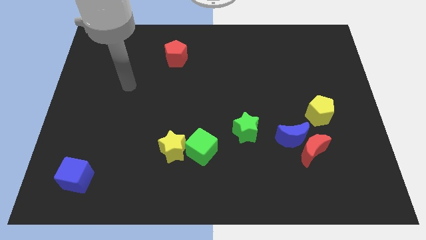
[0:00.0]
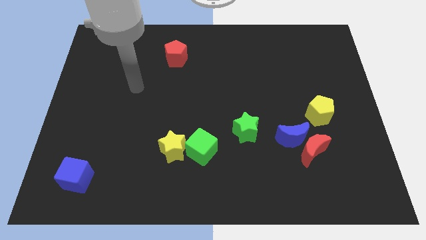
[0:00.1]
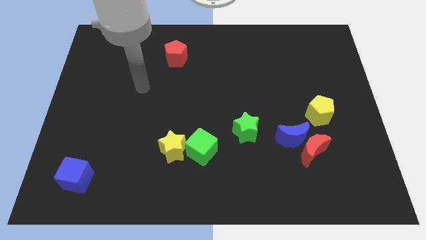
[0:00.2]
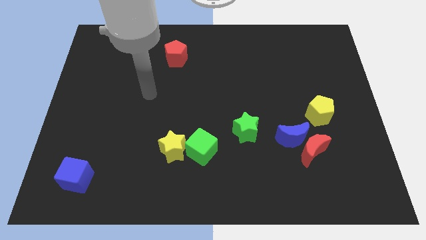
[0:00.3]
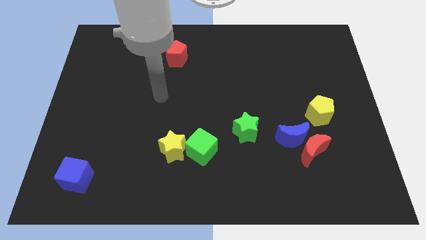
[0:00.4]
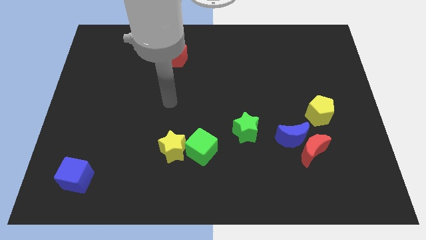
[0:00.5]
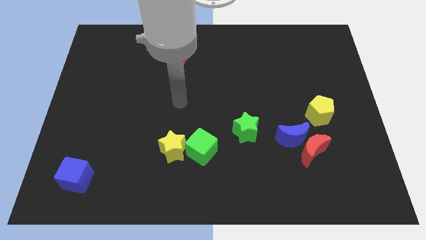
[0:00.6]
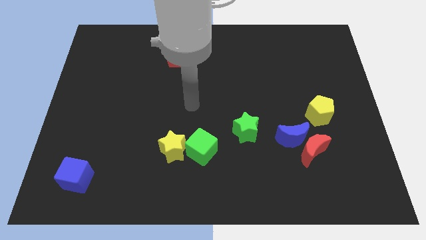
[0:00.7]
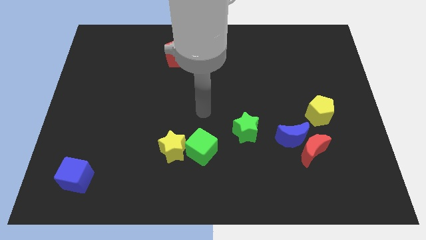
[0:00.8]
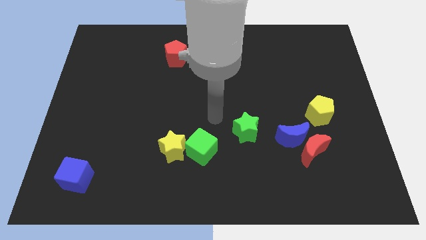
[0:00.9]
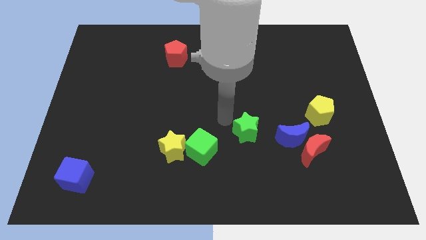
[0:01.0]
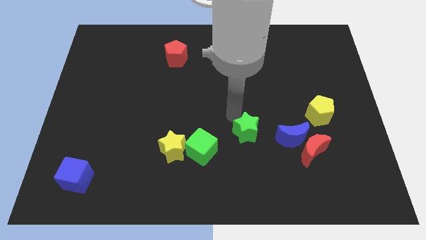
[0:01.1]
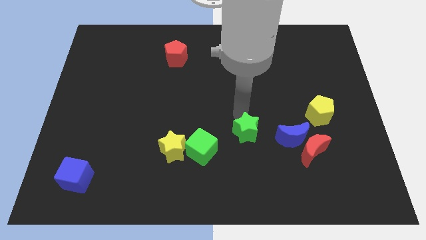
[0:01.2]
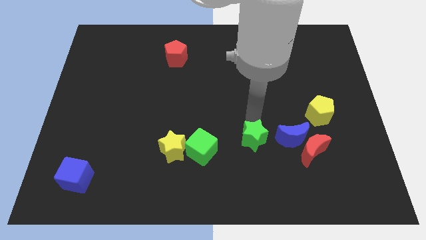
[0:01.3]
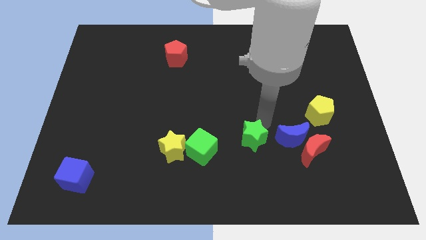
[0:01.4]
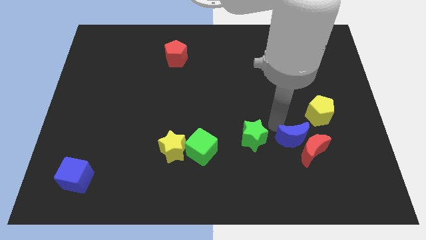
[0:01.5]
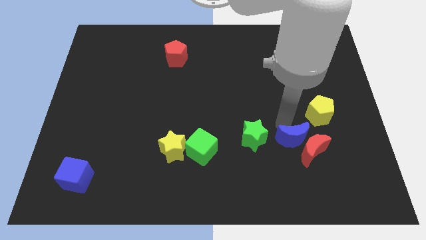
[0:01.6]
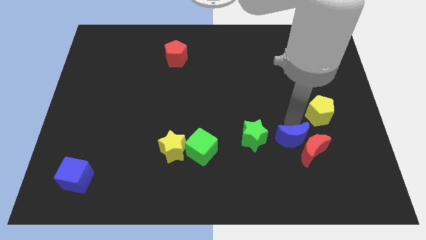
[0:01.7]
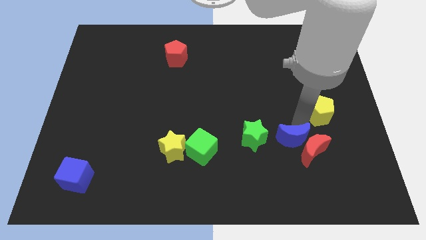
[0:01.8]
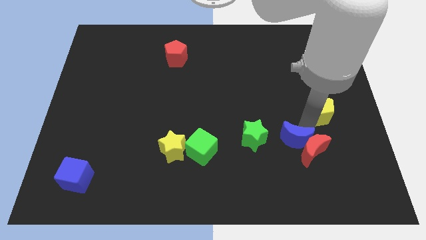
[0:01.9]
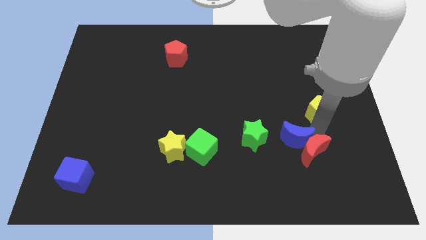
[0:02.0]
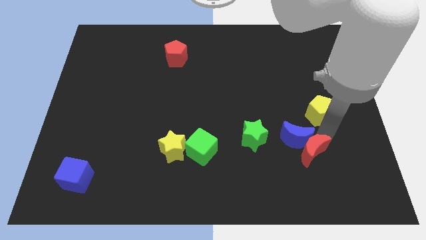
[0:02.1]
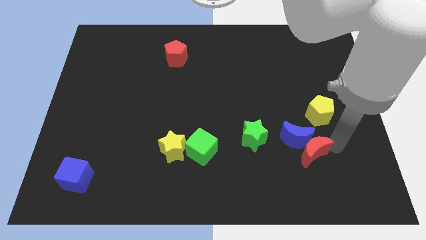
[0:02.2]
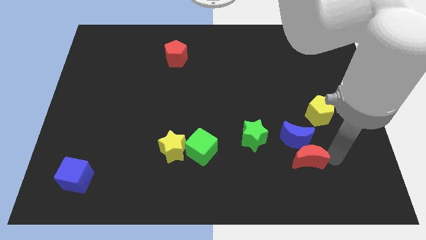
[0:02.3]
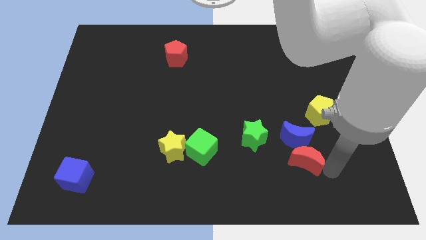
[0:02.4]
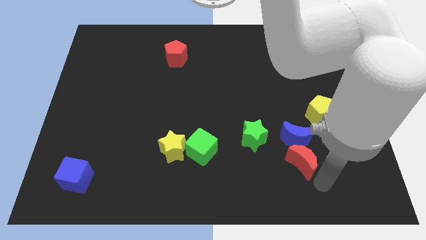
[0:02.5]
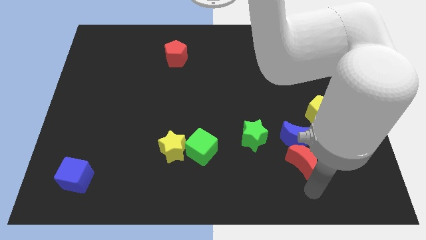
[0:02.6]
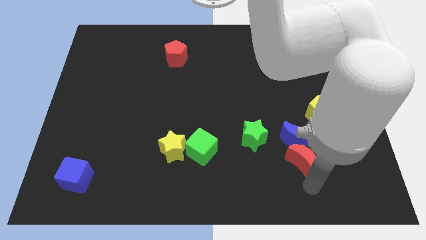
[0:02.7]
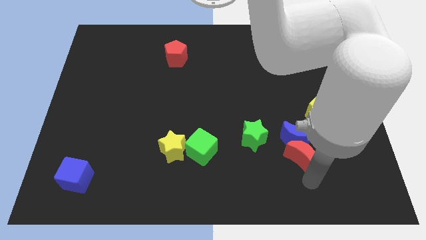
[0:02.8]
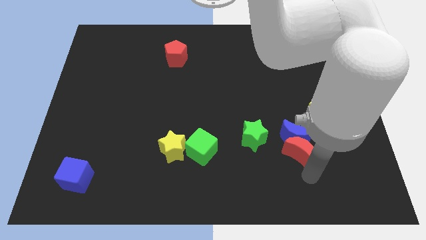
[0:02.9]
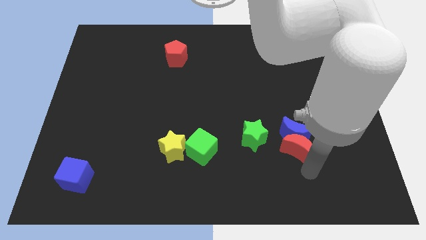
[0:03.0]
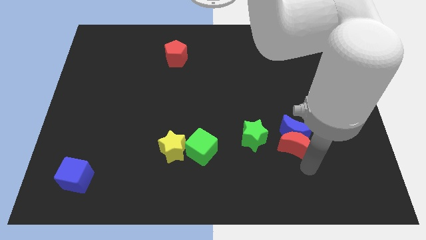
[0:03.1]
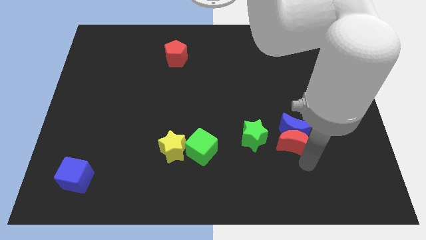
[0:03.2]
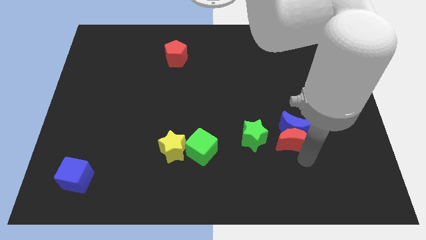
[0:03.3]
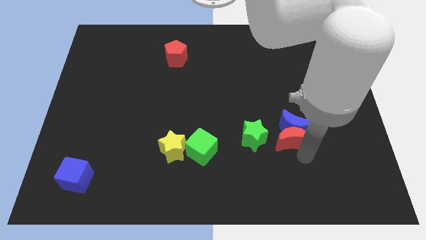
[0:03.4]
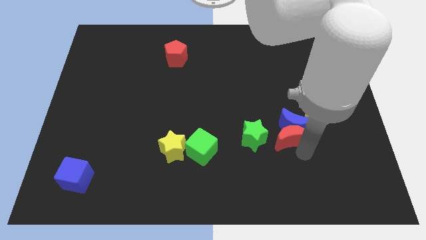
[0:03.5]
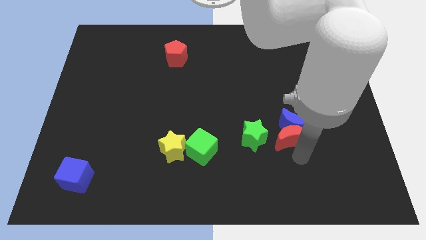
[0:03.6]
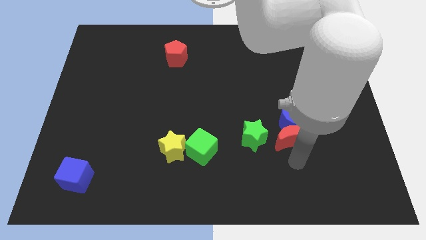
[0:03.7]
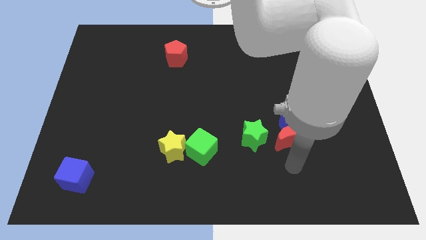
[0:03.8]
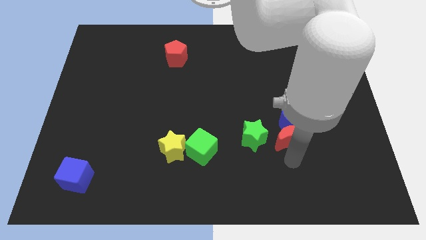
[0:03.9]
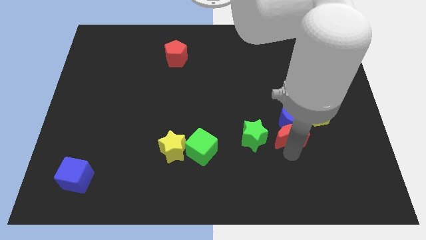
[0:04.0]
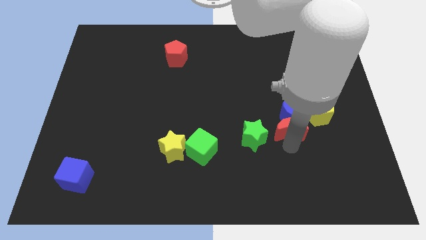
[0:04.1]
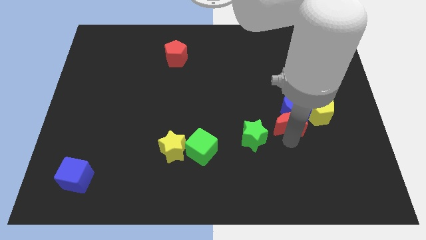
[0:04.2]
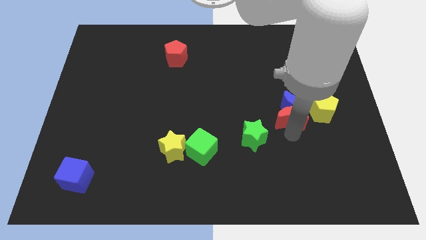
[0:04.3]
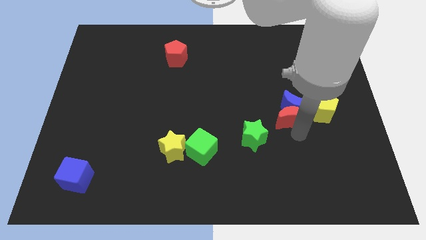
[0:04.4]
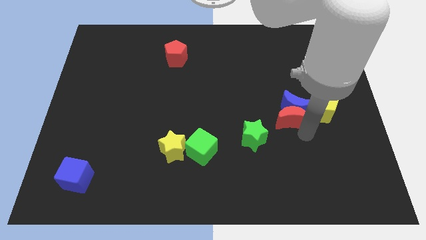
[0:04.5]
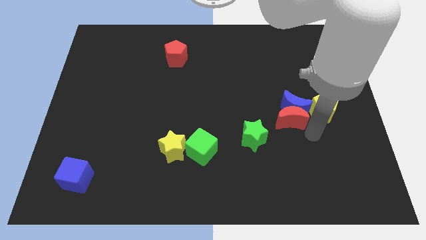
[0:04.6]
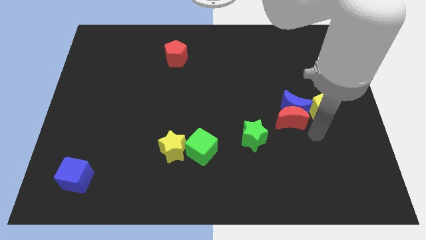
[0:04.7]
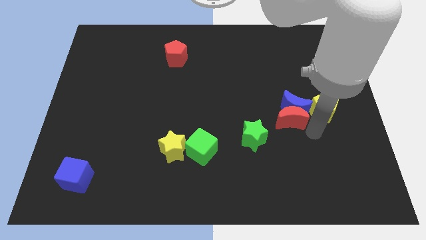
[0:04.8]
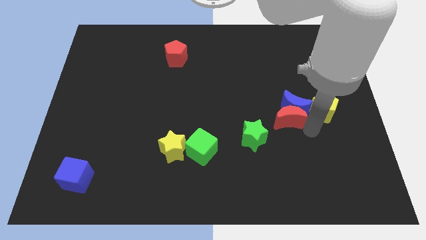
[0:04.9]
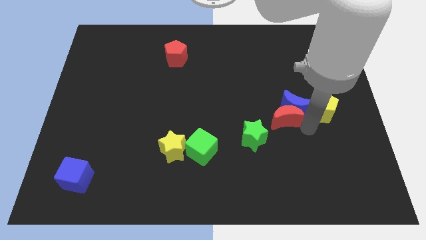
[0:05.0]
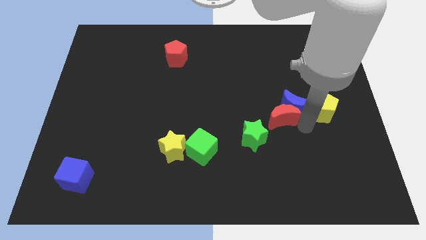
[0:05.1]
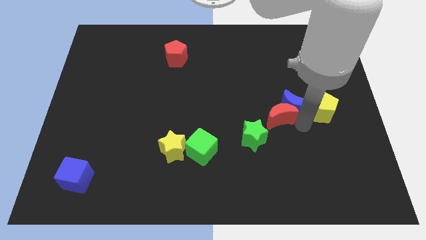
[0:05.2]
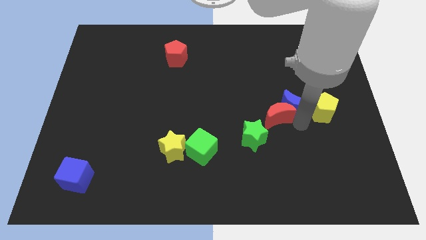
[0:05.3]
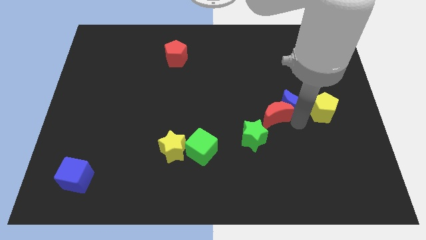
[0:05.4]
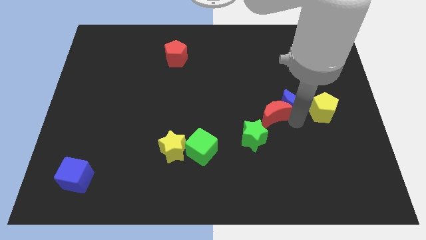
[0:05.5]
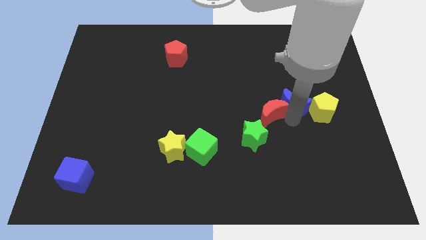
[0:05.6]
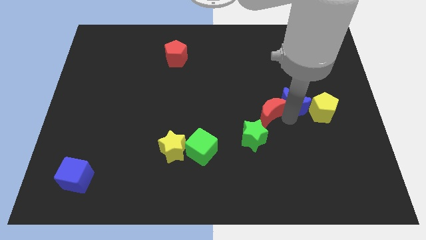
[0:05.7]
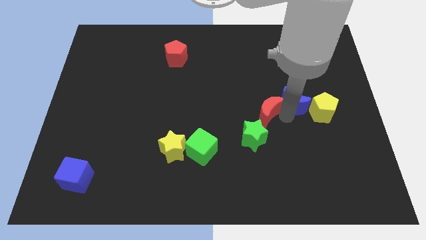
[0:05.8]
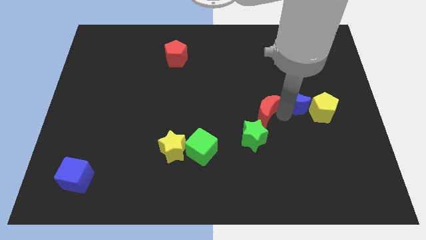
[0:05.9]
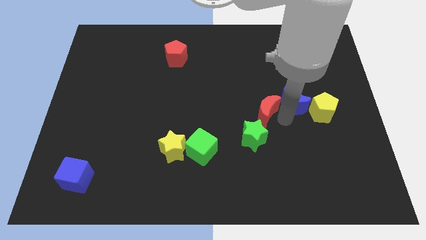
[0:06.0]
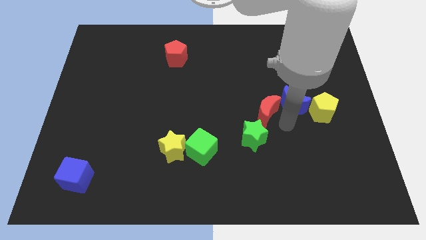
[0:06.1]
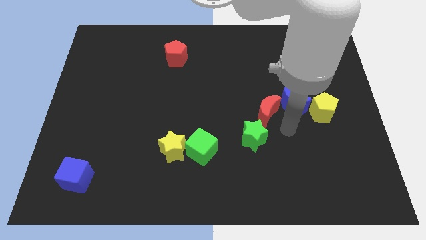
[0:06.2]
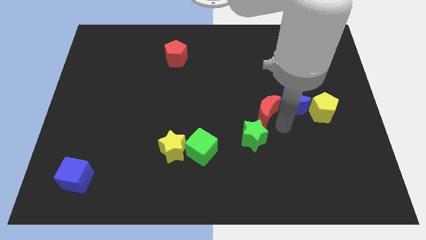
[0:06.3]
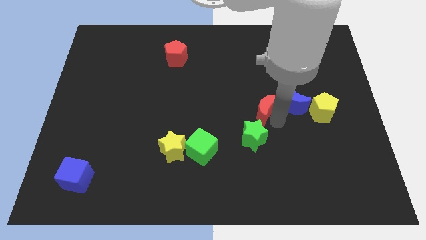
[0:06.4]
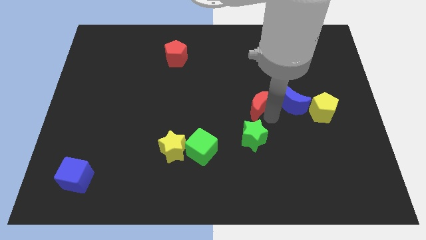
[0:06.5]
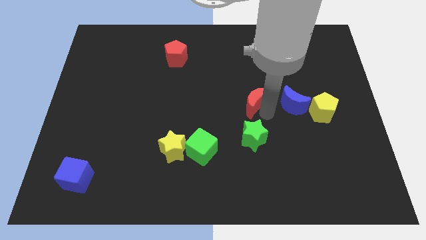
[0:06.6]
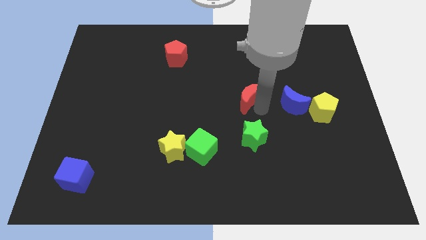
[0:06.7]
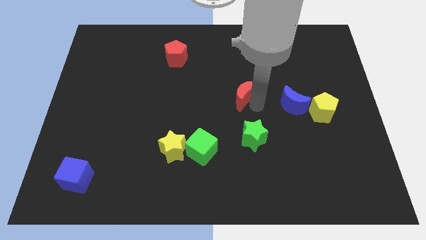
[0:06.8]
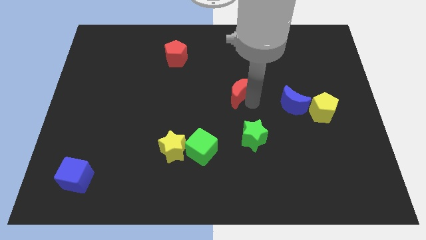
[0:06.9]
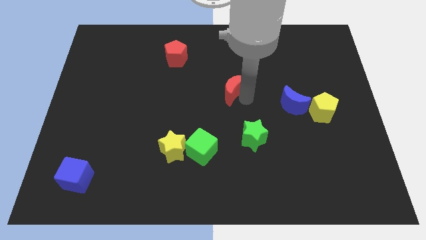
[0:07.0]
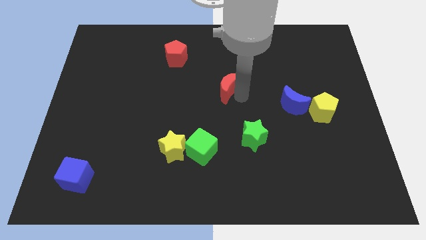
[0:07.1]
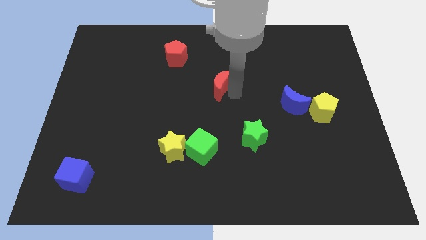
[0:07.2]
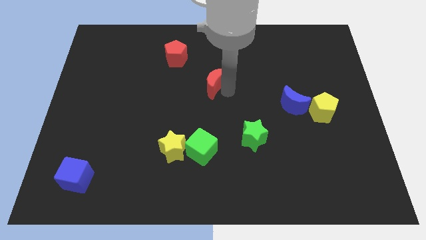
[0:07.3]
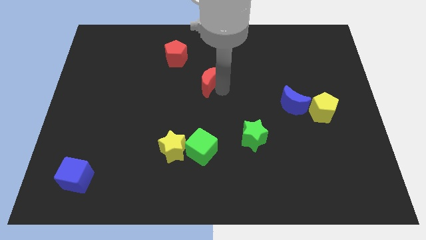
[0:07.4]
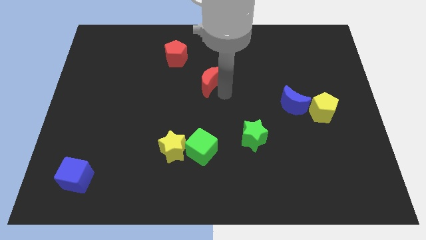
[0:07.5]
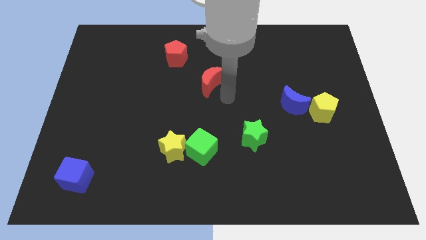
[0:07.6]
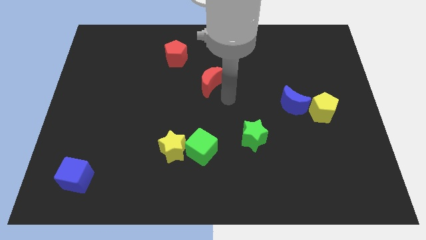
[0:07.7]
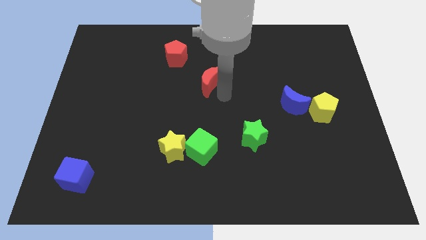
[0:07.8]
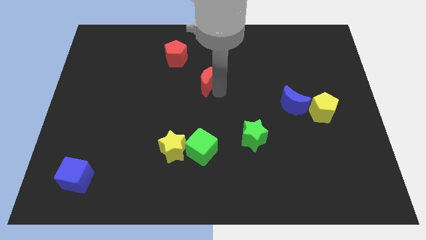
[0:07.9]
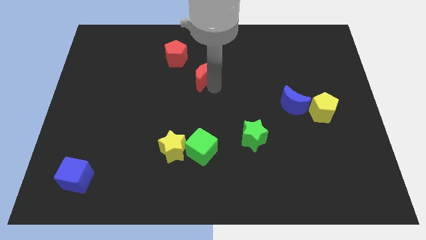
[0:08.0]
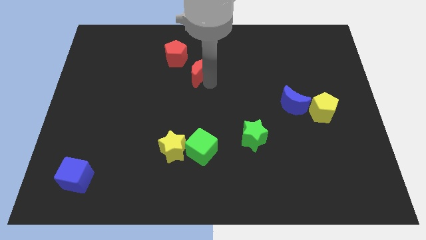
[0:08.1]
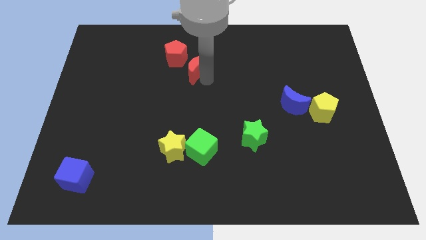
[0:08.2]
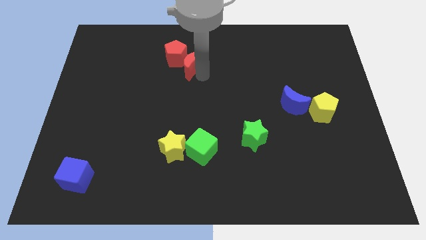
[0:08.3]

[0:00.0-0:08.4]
move the red moon close to the red pentagon
